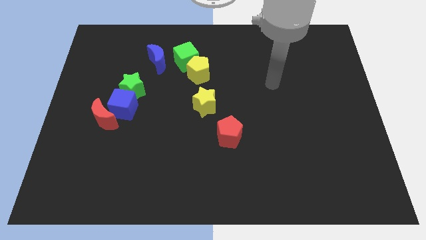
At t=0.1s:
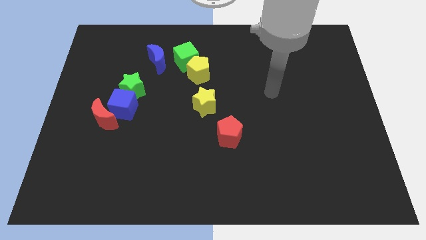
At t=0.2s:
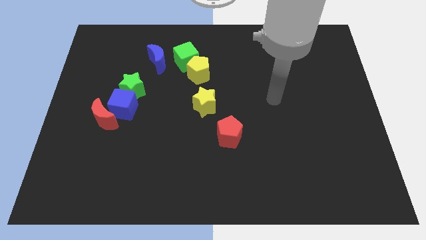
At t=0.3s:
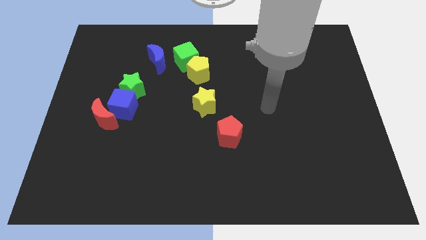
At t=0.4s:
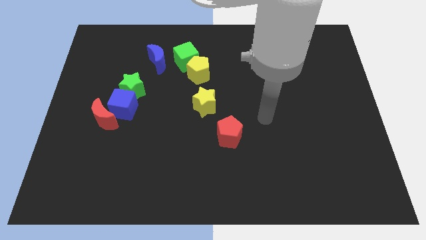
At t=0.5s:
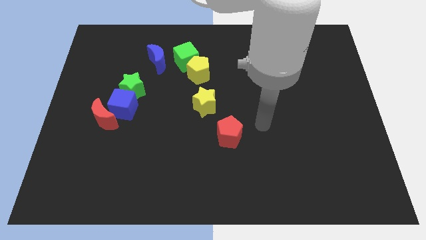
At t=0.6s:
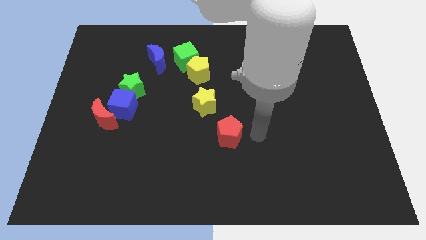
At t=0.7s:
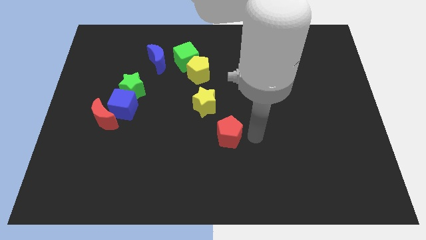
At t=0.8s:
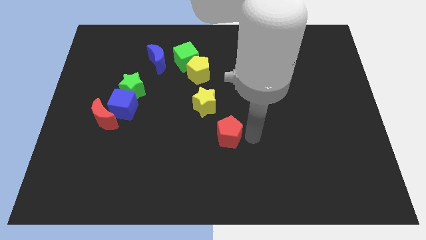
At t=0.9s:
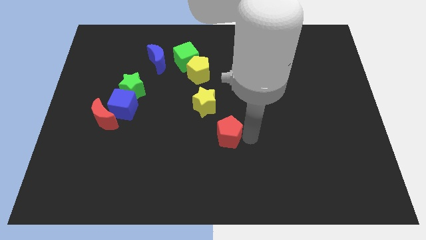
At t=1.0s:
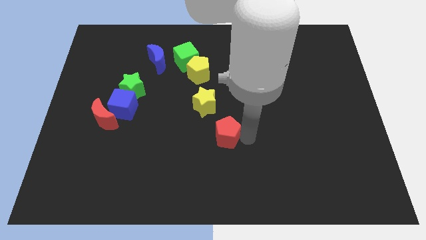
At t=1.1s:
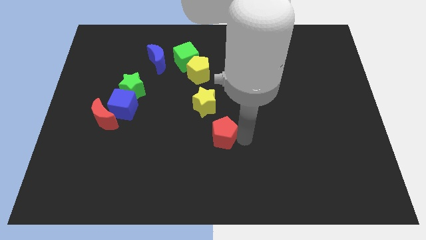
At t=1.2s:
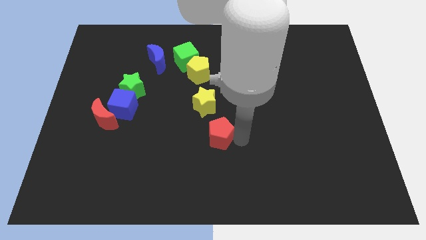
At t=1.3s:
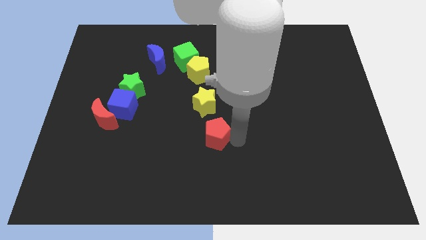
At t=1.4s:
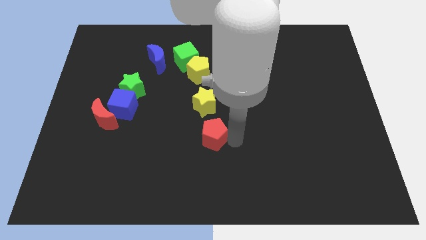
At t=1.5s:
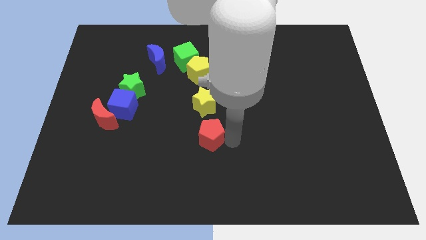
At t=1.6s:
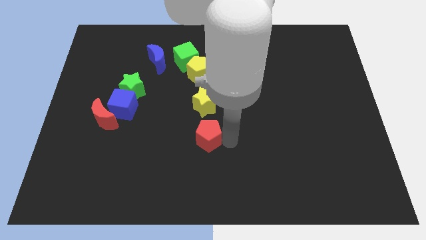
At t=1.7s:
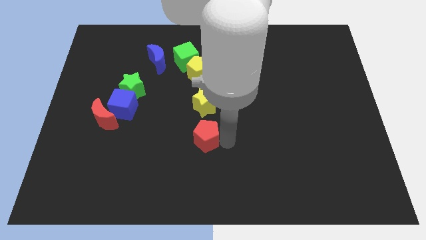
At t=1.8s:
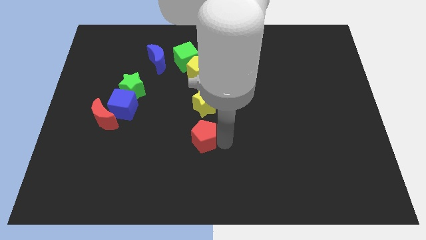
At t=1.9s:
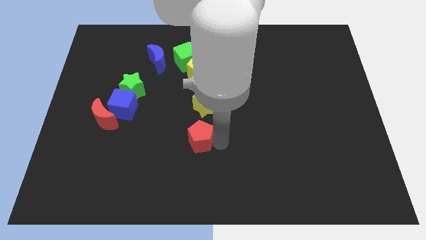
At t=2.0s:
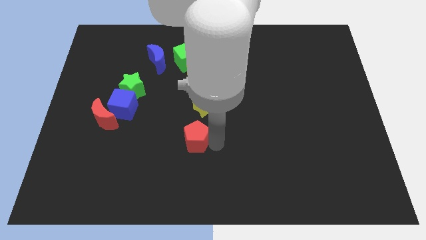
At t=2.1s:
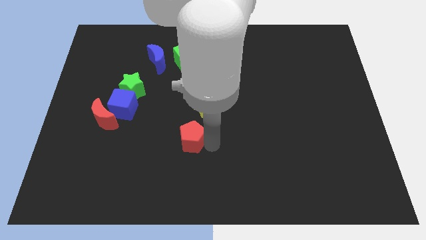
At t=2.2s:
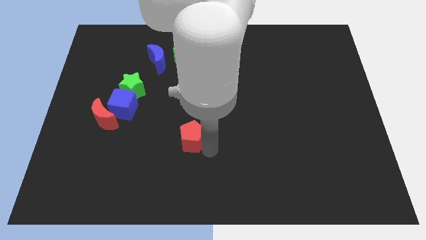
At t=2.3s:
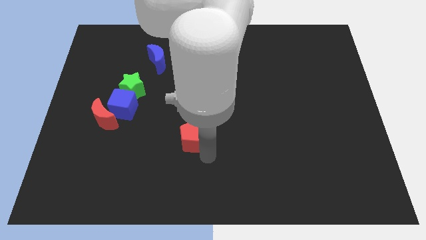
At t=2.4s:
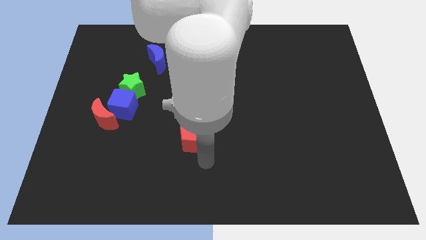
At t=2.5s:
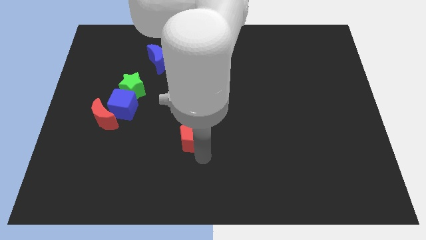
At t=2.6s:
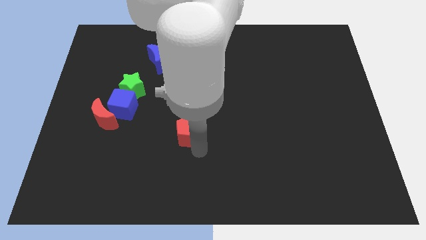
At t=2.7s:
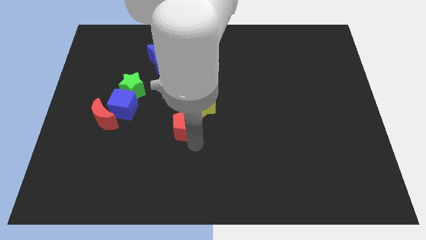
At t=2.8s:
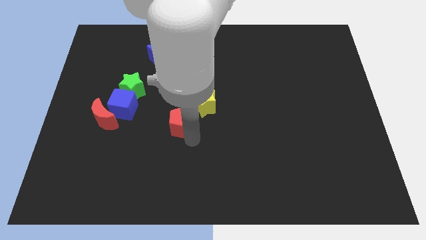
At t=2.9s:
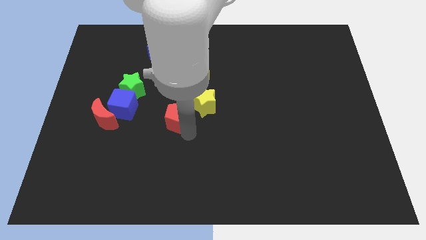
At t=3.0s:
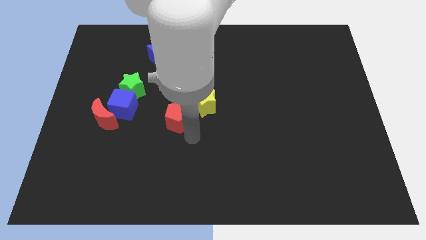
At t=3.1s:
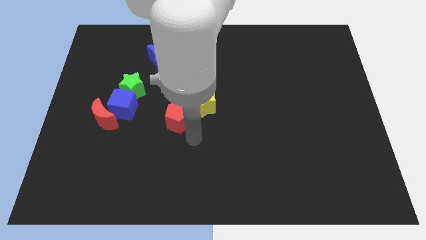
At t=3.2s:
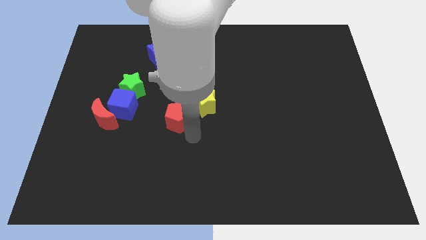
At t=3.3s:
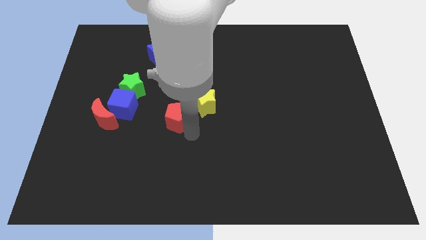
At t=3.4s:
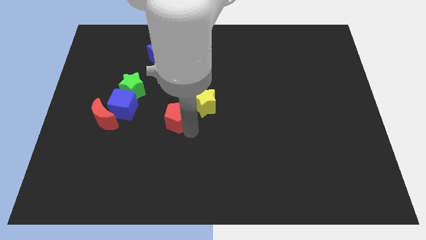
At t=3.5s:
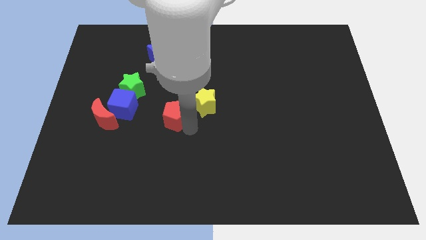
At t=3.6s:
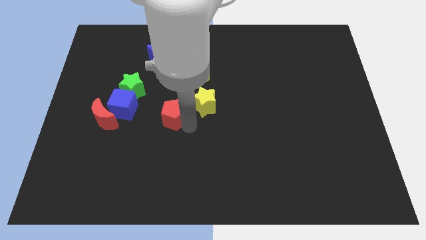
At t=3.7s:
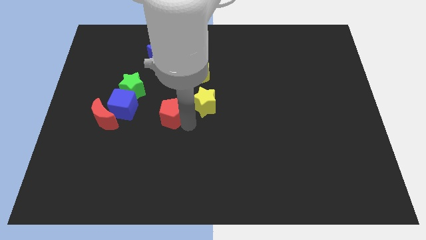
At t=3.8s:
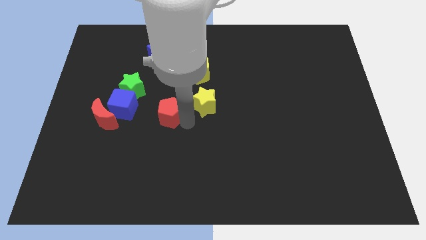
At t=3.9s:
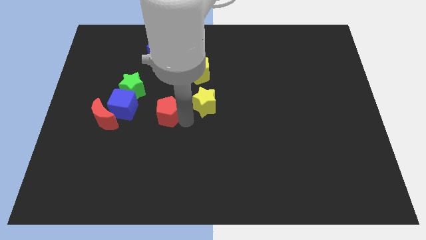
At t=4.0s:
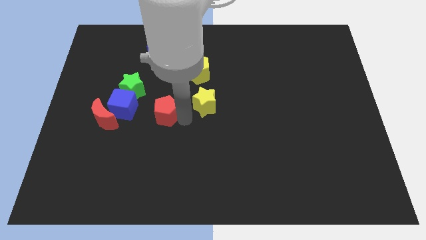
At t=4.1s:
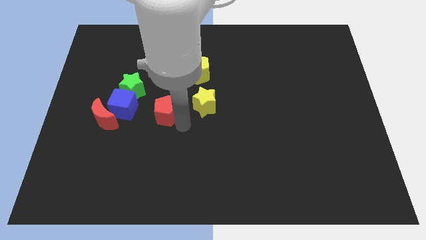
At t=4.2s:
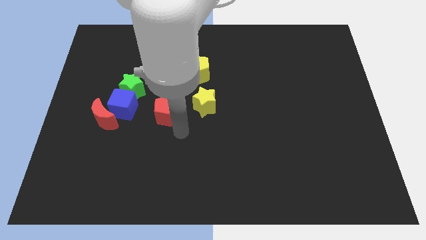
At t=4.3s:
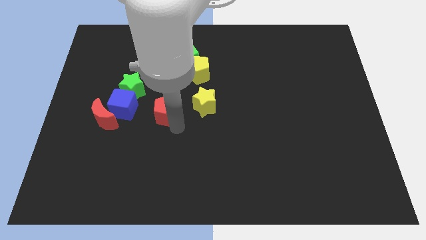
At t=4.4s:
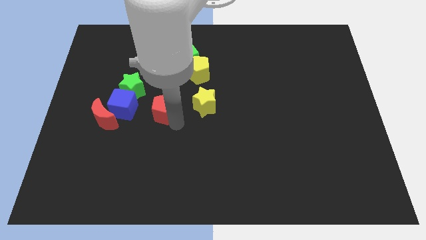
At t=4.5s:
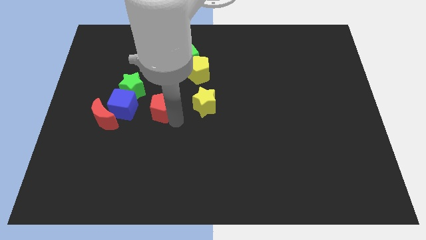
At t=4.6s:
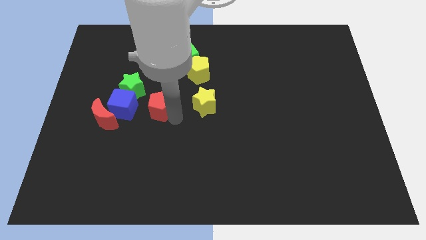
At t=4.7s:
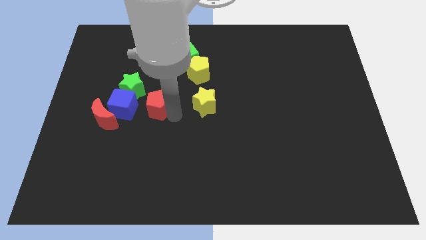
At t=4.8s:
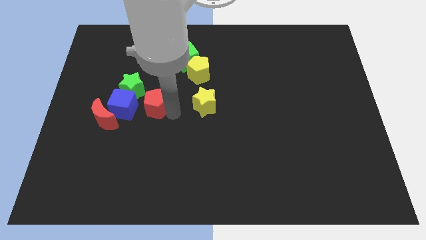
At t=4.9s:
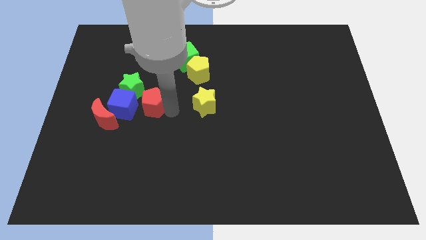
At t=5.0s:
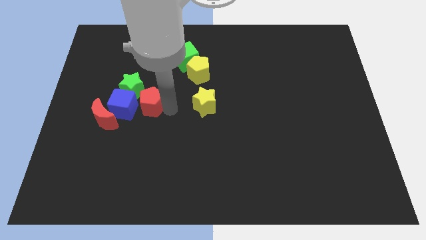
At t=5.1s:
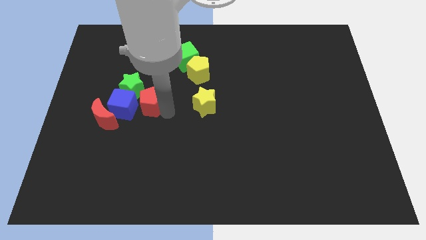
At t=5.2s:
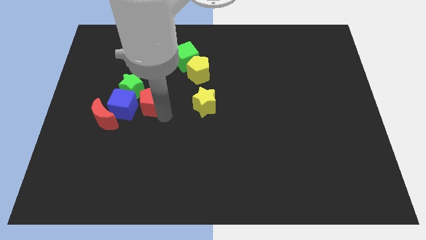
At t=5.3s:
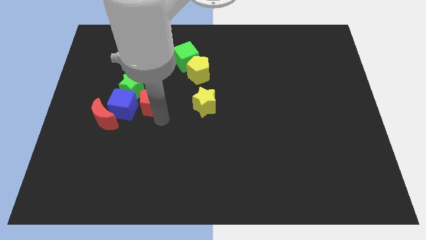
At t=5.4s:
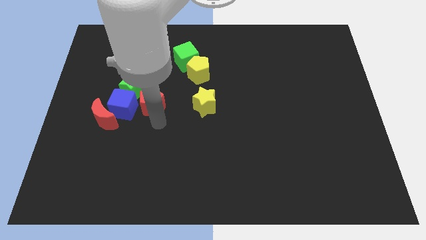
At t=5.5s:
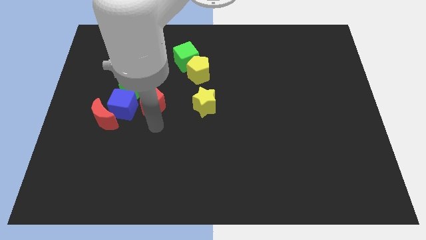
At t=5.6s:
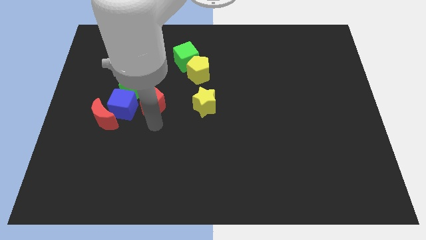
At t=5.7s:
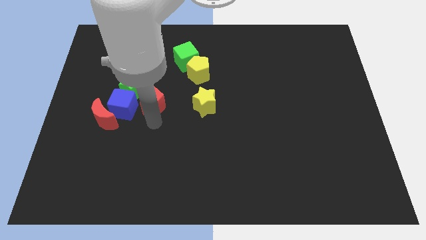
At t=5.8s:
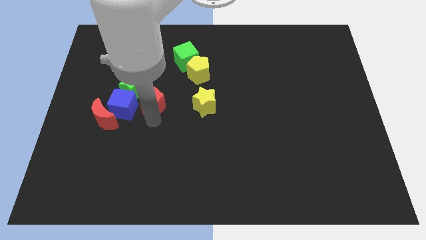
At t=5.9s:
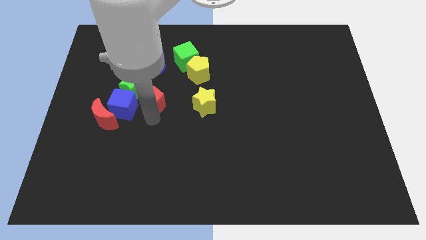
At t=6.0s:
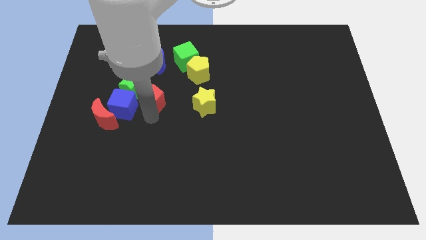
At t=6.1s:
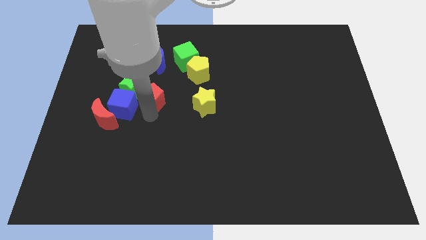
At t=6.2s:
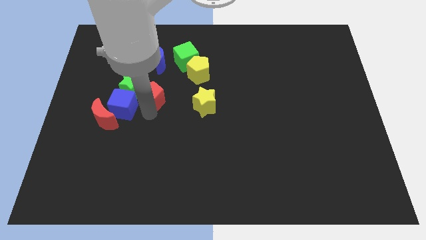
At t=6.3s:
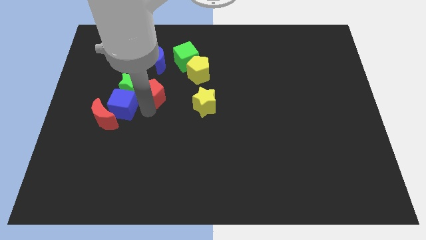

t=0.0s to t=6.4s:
slide the red pentagon up and left diagonally

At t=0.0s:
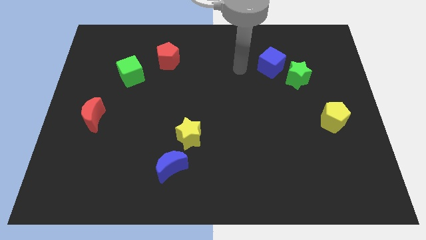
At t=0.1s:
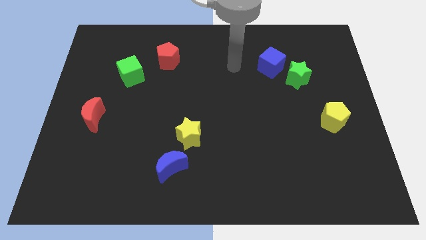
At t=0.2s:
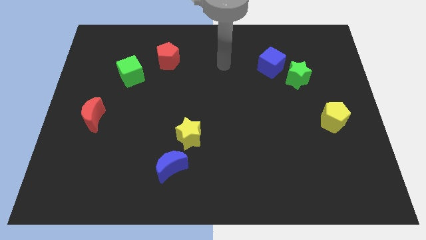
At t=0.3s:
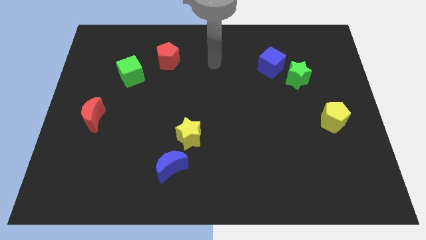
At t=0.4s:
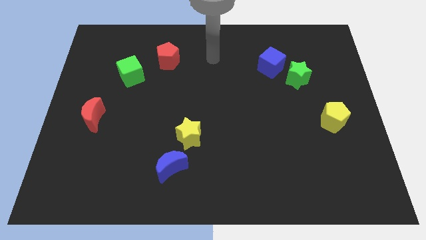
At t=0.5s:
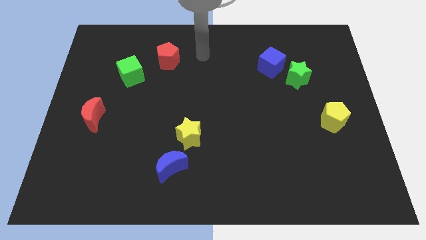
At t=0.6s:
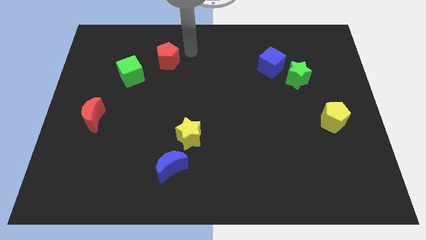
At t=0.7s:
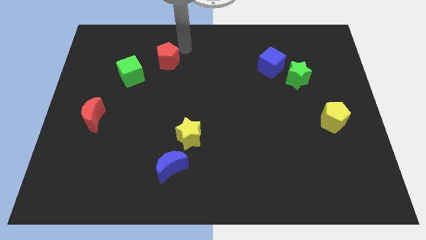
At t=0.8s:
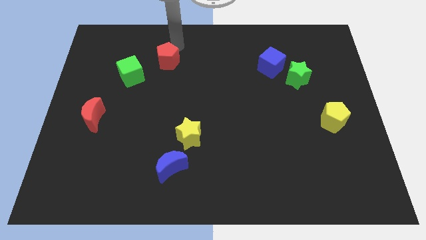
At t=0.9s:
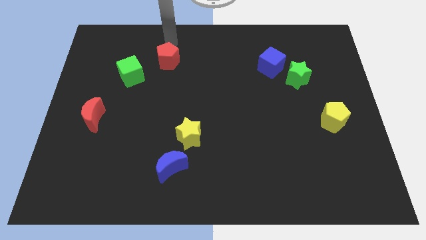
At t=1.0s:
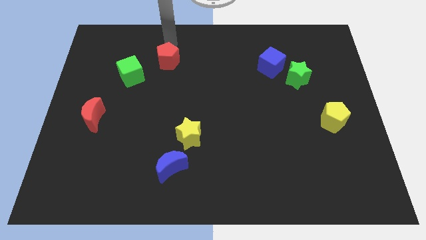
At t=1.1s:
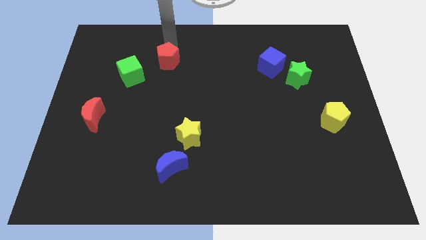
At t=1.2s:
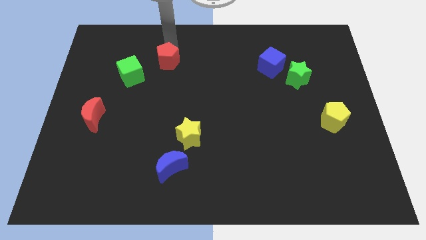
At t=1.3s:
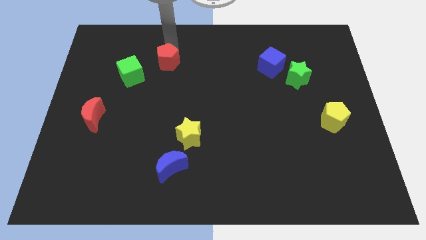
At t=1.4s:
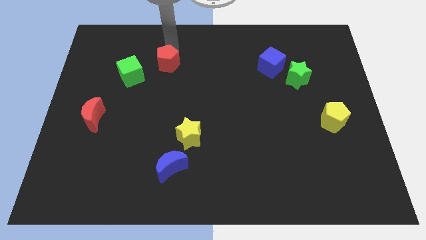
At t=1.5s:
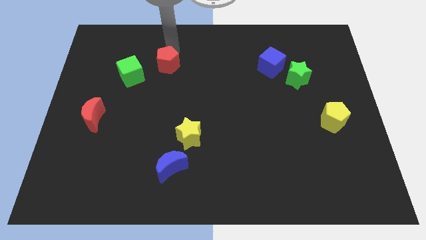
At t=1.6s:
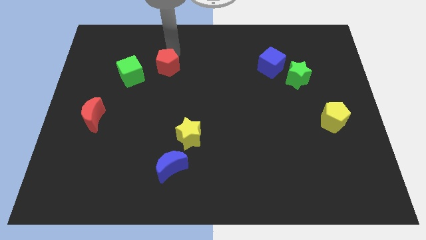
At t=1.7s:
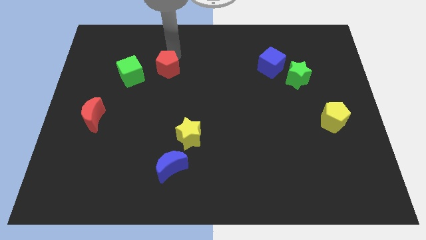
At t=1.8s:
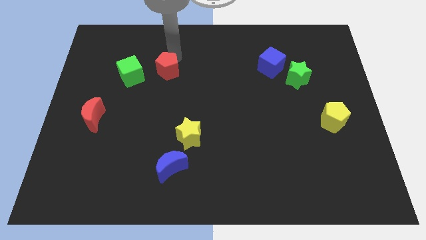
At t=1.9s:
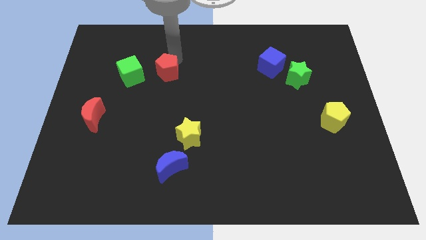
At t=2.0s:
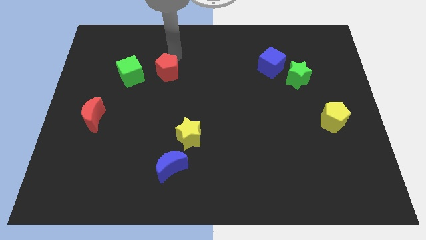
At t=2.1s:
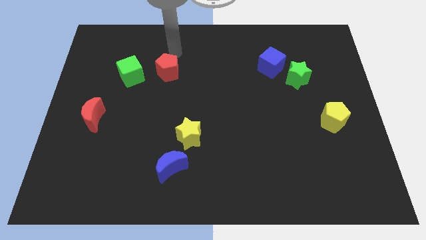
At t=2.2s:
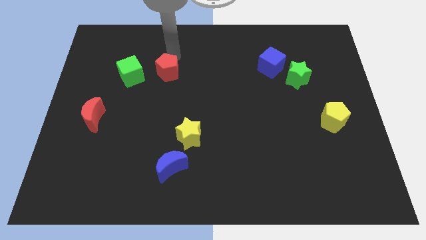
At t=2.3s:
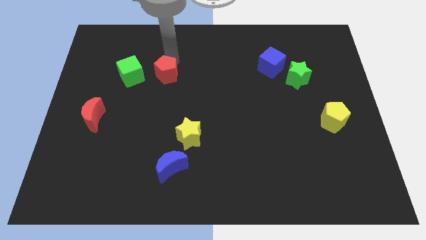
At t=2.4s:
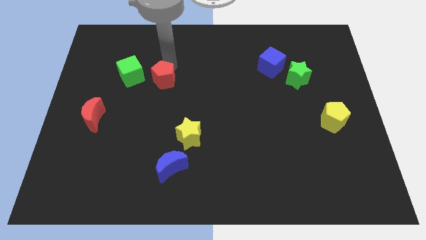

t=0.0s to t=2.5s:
move the red pentagon downwards slightly
